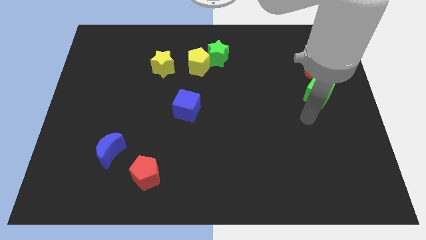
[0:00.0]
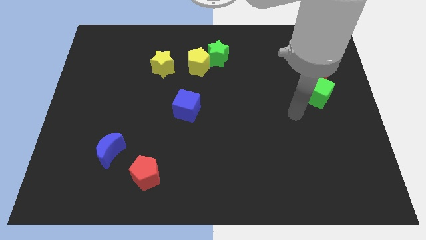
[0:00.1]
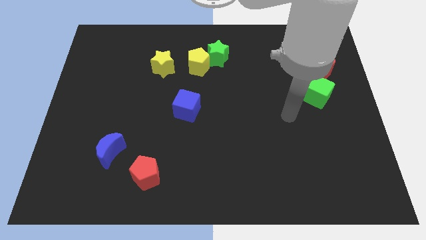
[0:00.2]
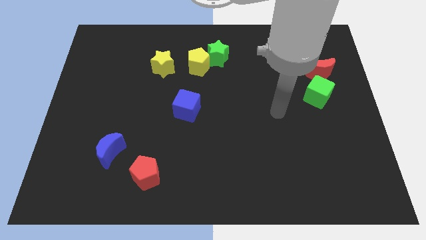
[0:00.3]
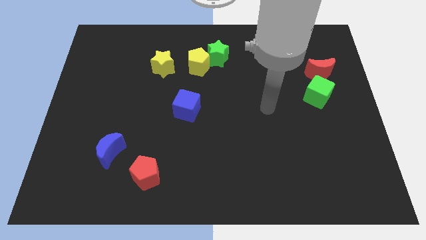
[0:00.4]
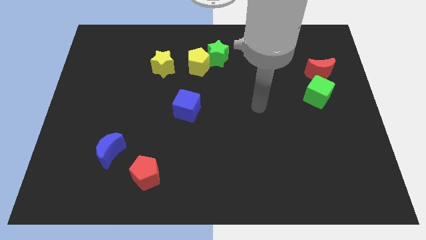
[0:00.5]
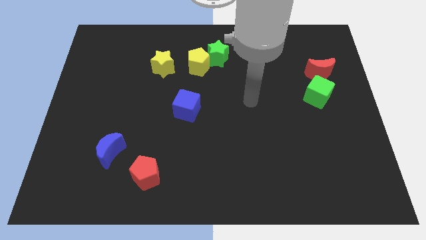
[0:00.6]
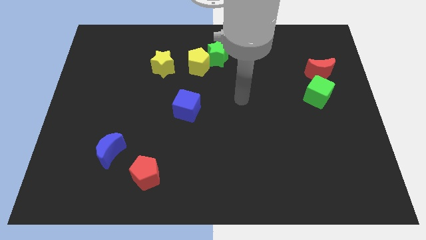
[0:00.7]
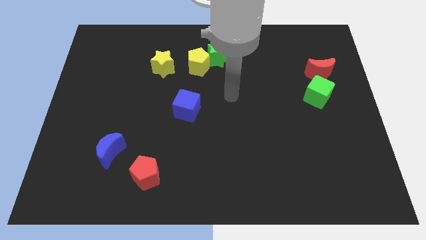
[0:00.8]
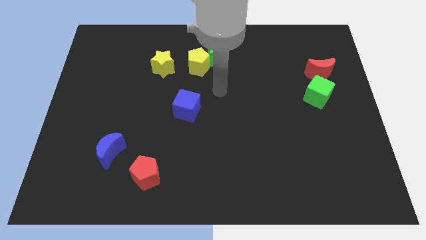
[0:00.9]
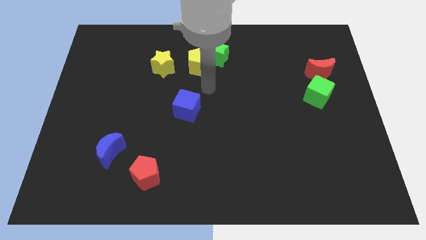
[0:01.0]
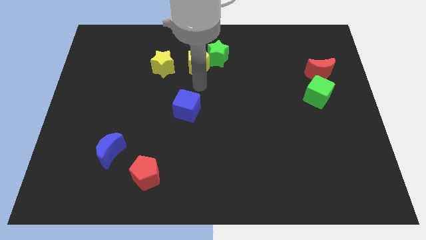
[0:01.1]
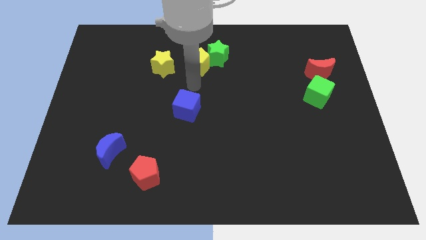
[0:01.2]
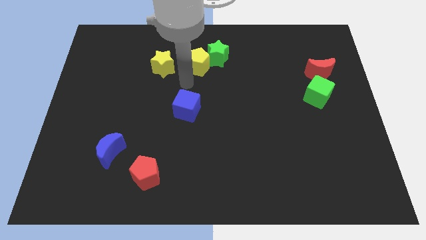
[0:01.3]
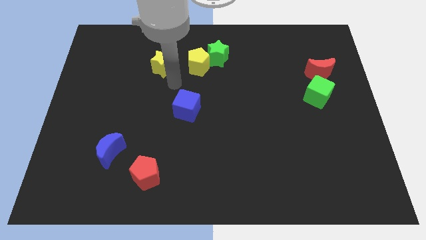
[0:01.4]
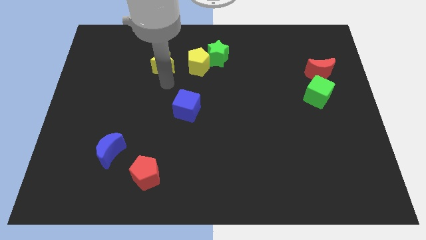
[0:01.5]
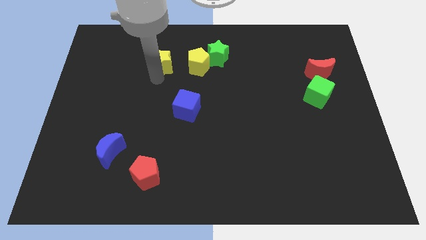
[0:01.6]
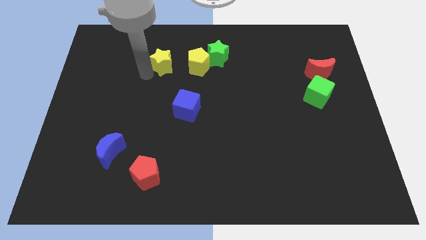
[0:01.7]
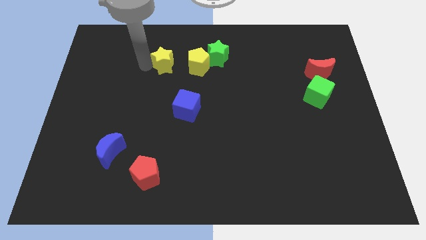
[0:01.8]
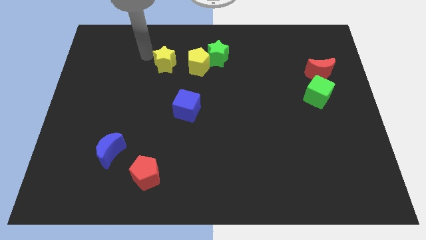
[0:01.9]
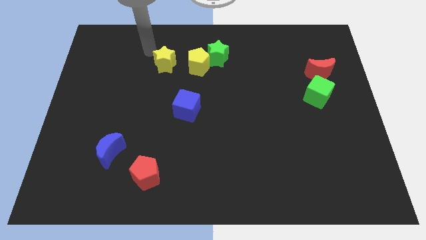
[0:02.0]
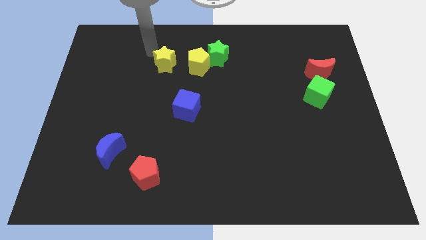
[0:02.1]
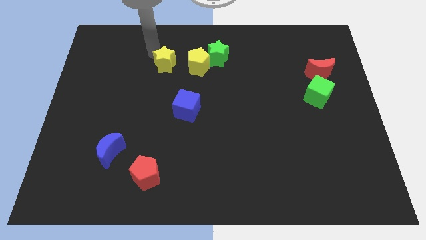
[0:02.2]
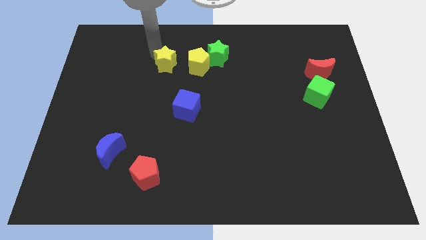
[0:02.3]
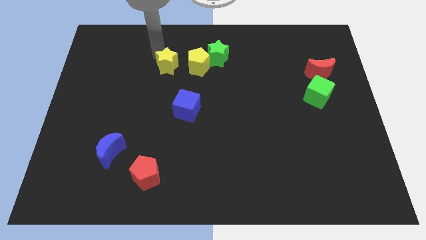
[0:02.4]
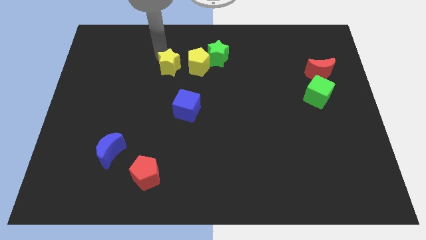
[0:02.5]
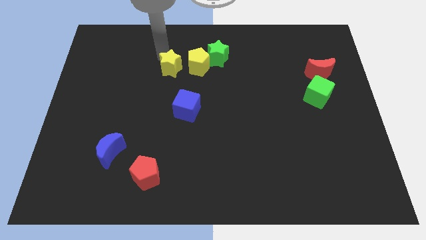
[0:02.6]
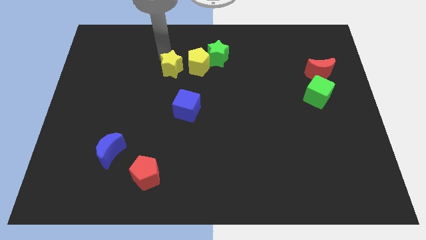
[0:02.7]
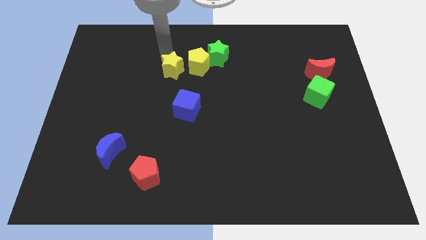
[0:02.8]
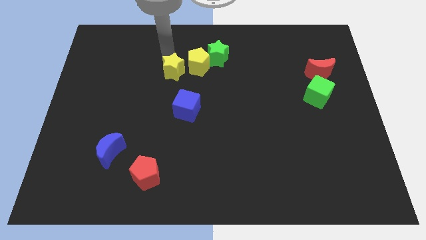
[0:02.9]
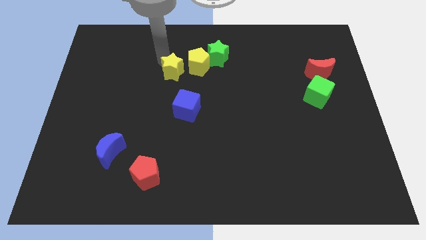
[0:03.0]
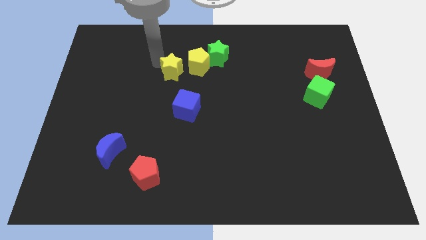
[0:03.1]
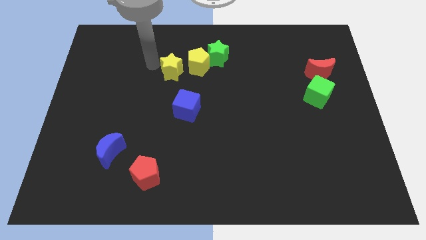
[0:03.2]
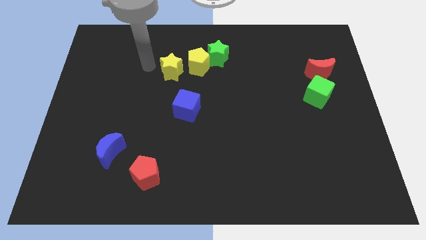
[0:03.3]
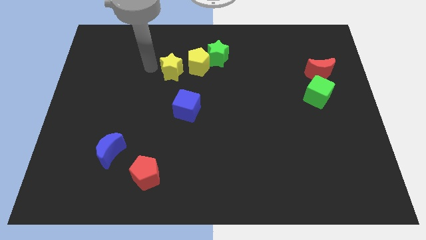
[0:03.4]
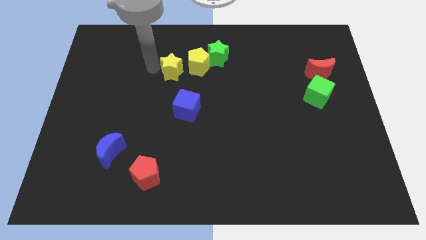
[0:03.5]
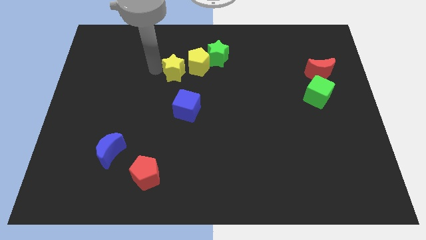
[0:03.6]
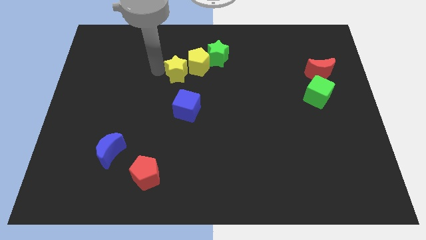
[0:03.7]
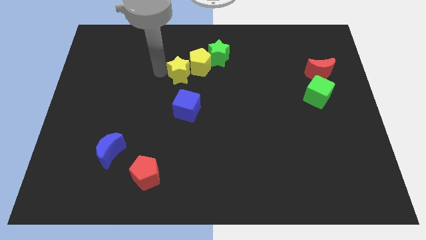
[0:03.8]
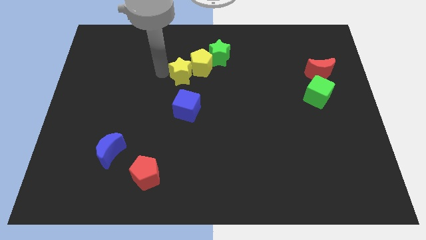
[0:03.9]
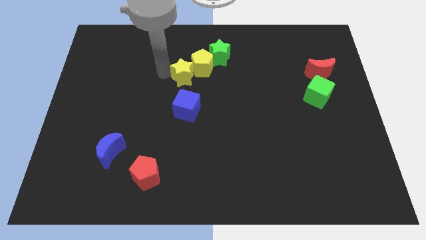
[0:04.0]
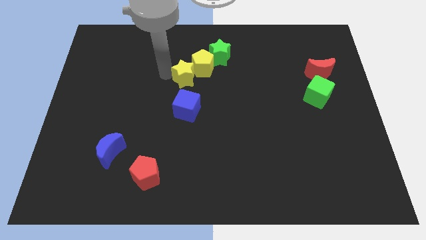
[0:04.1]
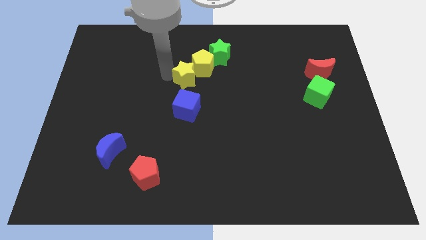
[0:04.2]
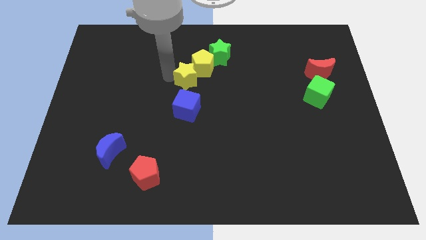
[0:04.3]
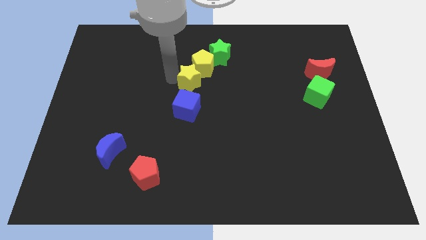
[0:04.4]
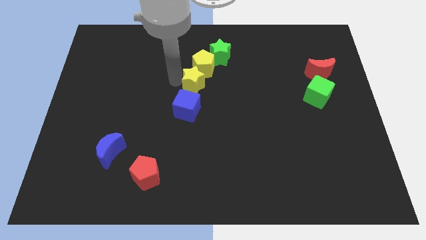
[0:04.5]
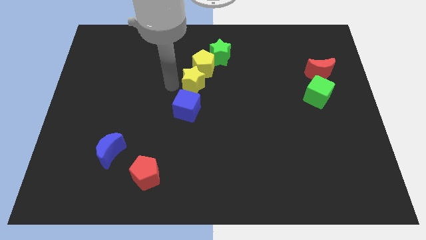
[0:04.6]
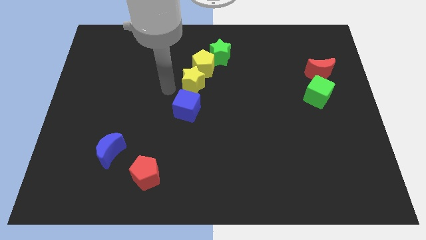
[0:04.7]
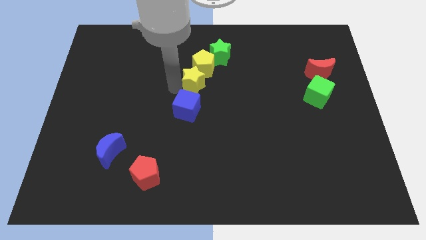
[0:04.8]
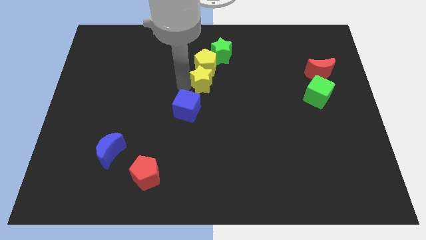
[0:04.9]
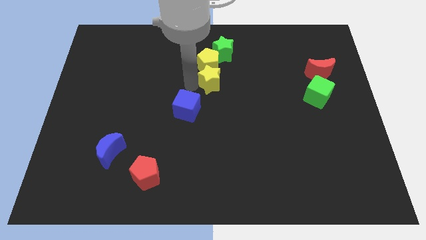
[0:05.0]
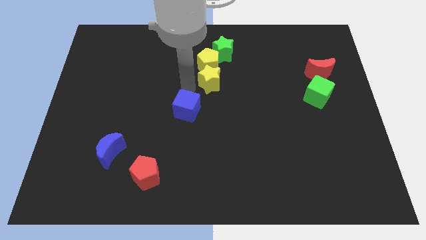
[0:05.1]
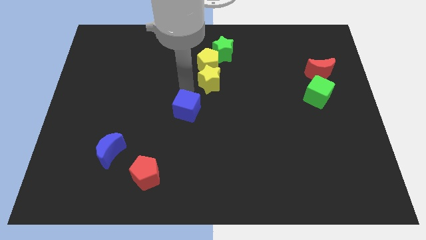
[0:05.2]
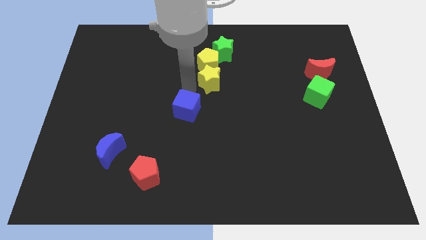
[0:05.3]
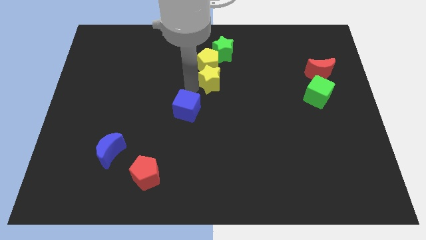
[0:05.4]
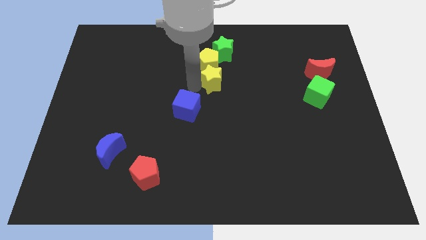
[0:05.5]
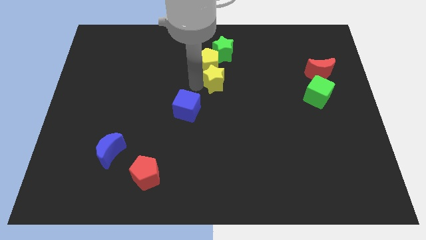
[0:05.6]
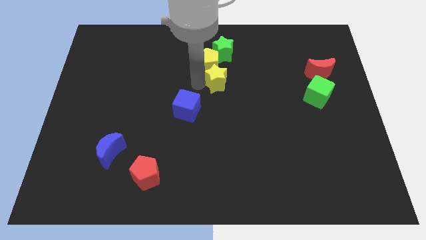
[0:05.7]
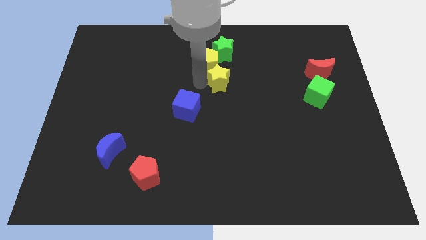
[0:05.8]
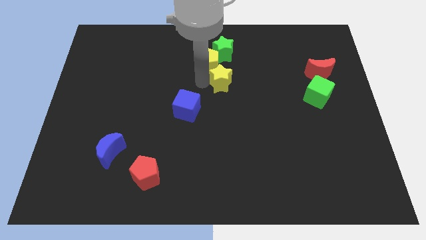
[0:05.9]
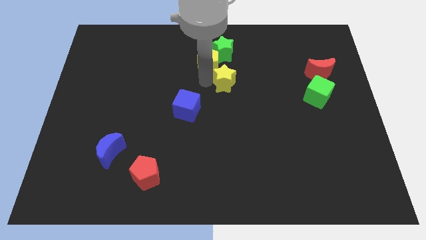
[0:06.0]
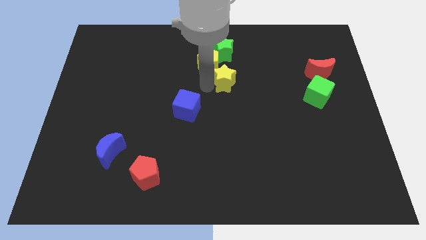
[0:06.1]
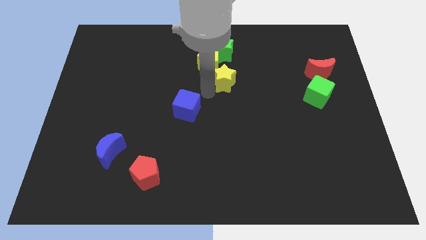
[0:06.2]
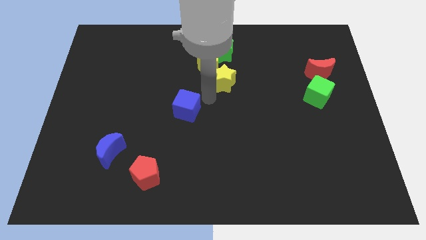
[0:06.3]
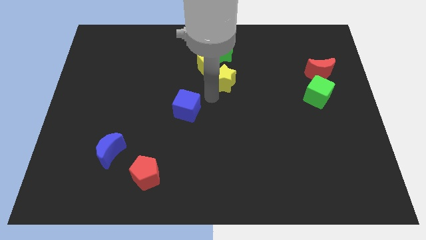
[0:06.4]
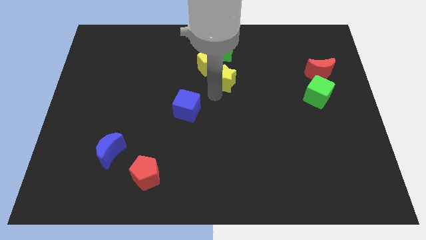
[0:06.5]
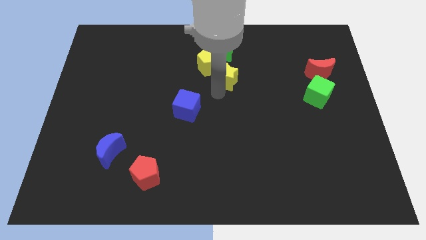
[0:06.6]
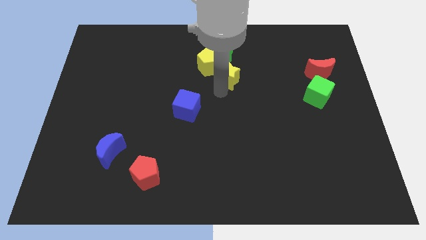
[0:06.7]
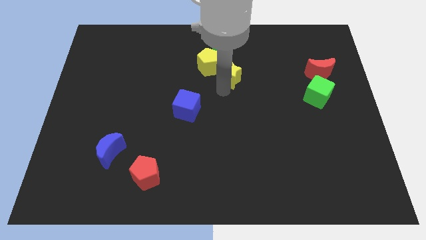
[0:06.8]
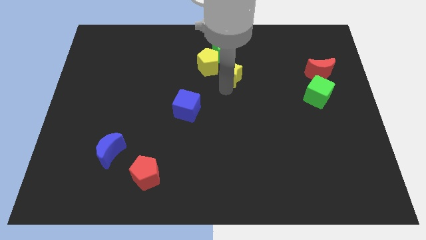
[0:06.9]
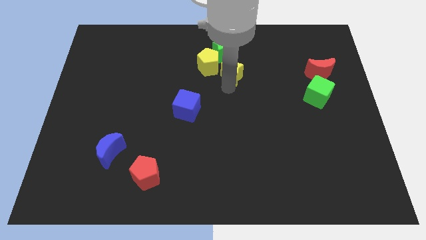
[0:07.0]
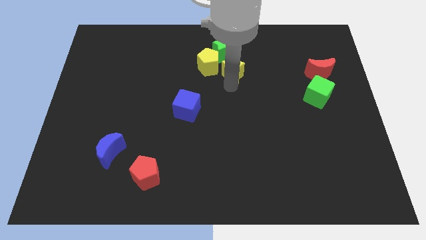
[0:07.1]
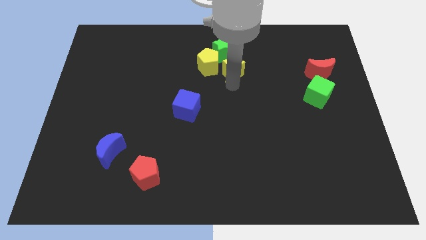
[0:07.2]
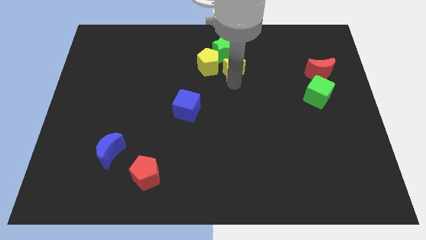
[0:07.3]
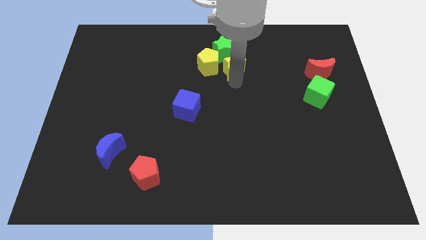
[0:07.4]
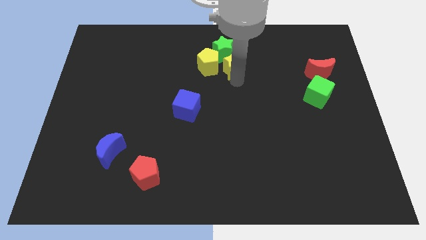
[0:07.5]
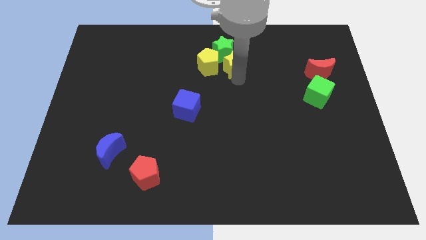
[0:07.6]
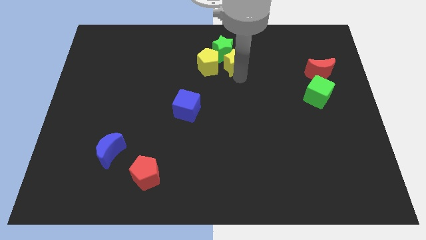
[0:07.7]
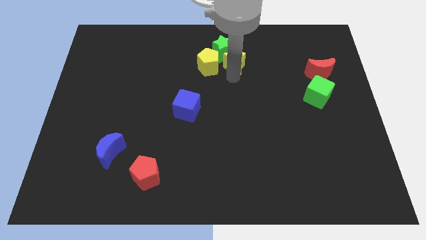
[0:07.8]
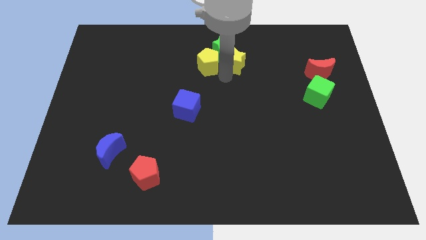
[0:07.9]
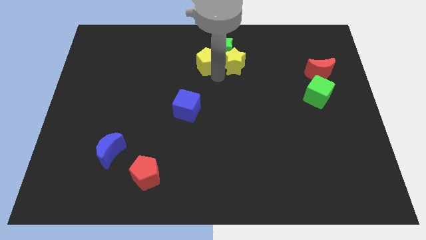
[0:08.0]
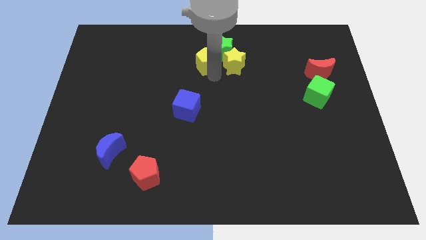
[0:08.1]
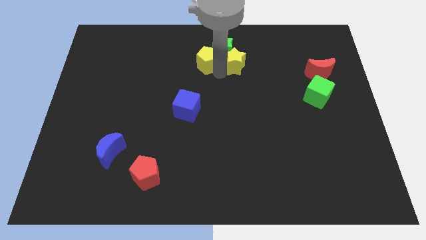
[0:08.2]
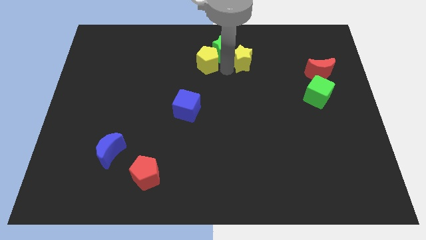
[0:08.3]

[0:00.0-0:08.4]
put the yellow star to the right side of the green star
